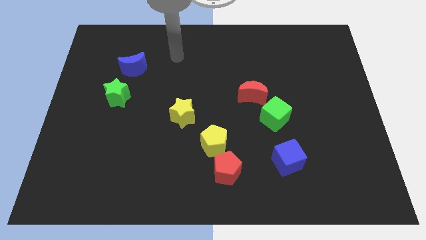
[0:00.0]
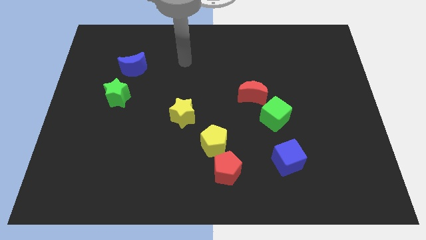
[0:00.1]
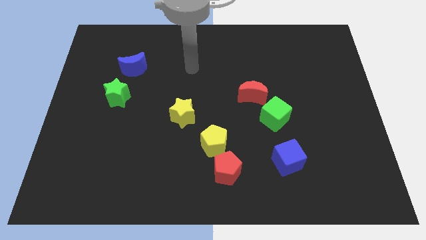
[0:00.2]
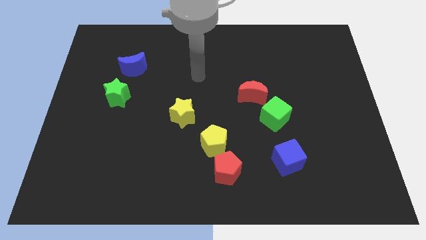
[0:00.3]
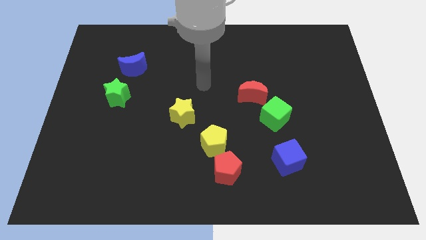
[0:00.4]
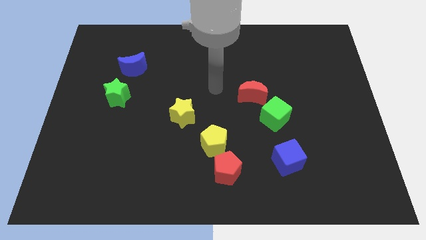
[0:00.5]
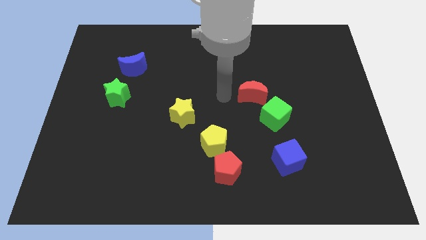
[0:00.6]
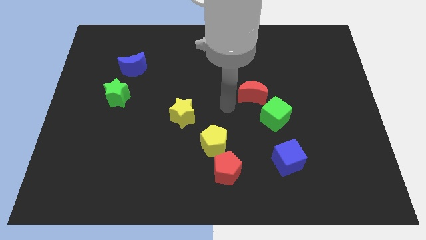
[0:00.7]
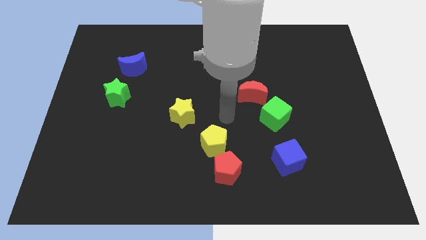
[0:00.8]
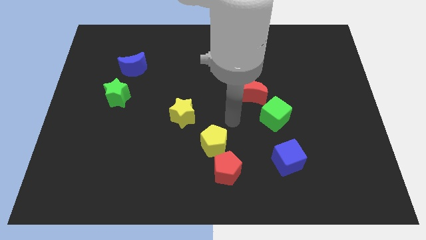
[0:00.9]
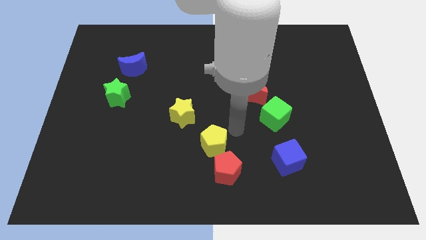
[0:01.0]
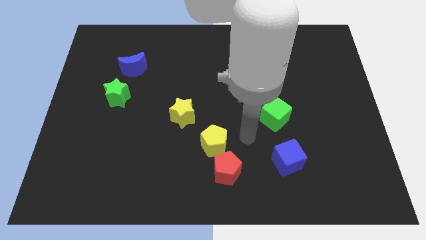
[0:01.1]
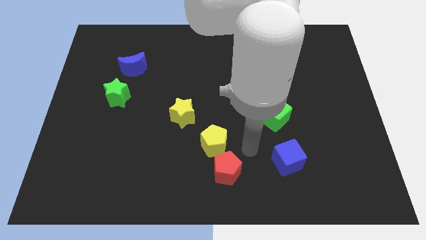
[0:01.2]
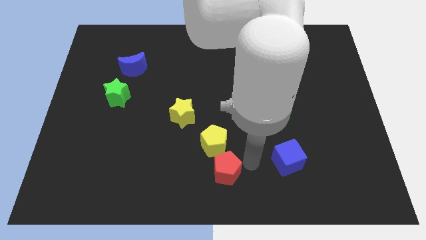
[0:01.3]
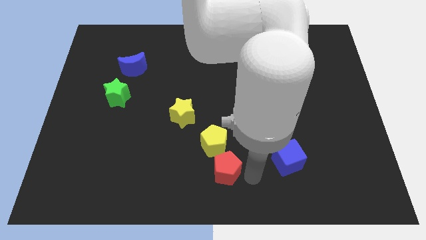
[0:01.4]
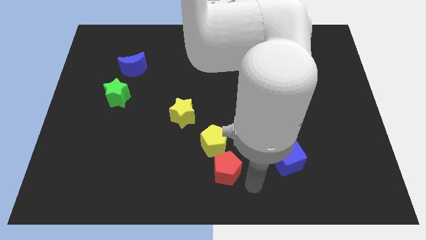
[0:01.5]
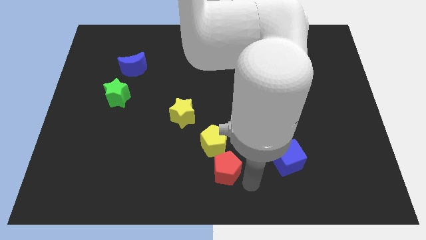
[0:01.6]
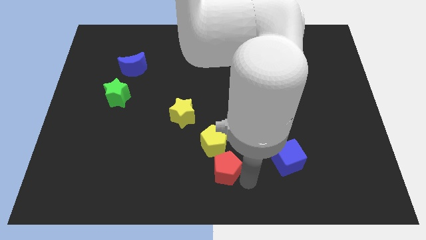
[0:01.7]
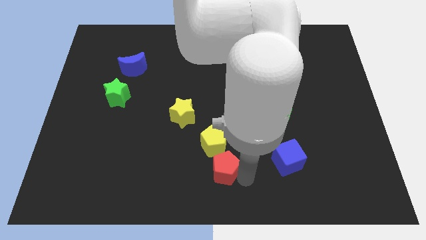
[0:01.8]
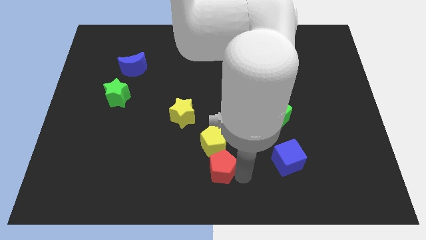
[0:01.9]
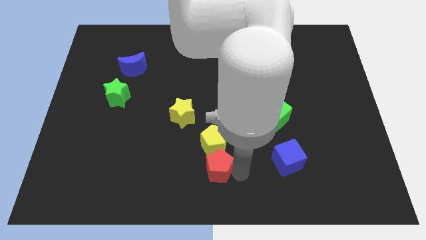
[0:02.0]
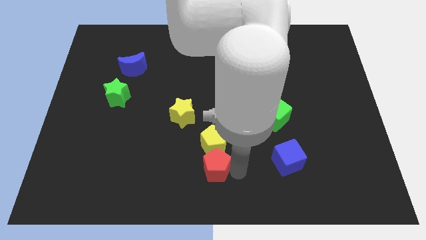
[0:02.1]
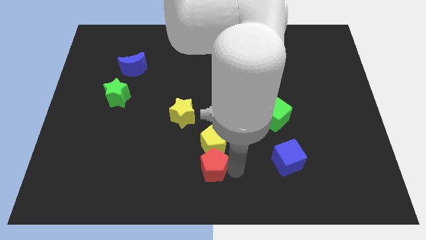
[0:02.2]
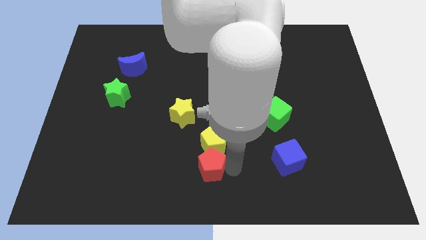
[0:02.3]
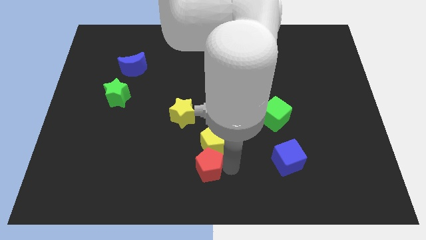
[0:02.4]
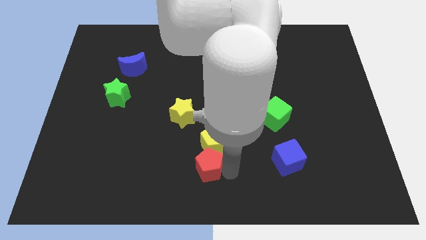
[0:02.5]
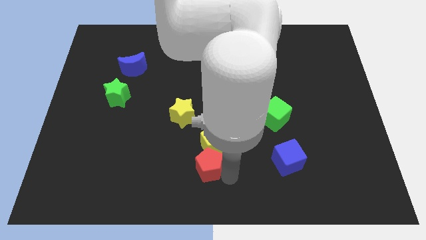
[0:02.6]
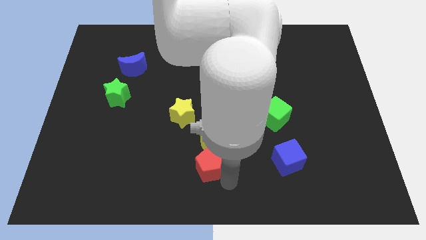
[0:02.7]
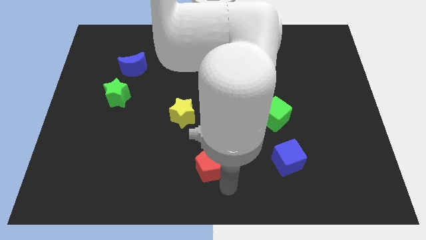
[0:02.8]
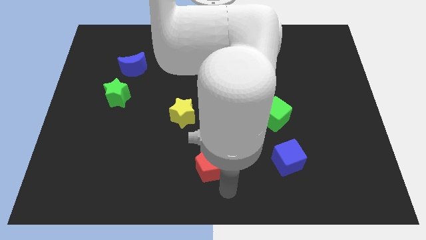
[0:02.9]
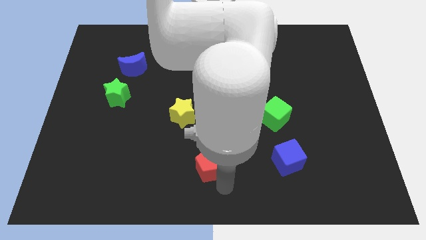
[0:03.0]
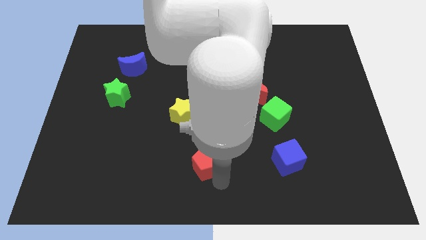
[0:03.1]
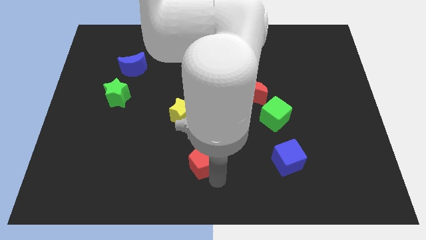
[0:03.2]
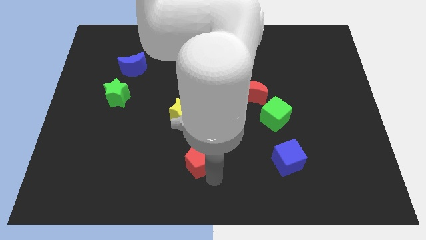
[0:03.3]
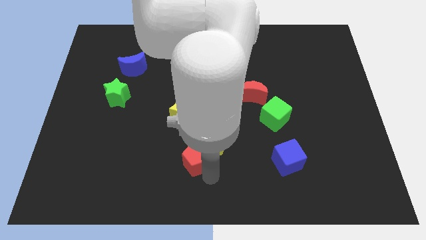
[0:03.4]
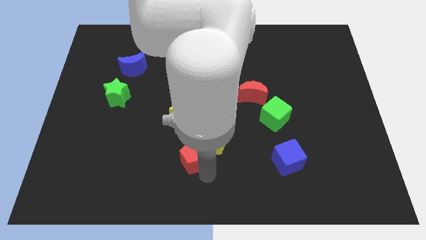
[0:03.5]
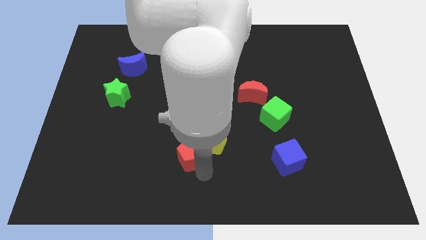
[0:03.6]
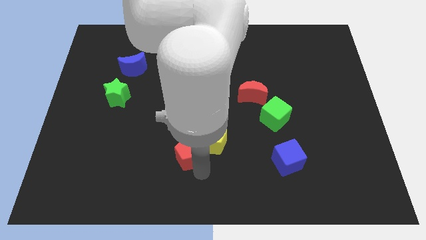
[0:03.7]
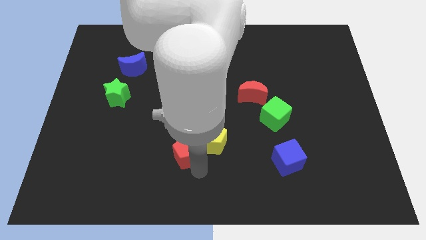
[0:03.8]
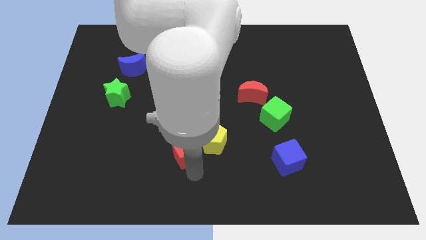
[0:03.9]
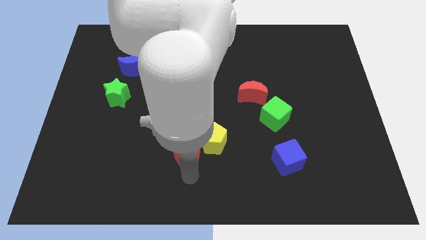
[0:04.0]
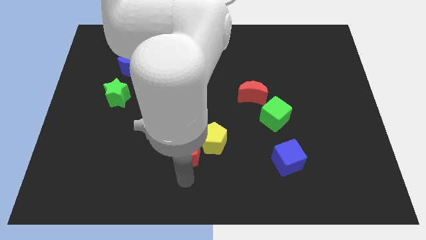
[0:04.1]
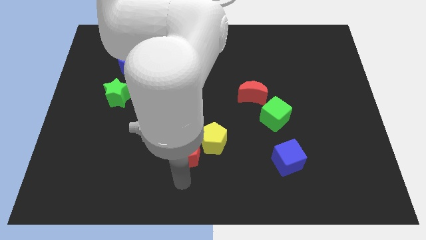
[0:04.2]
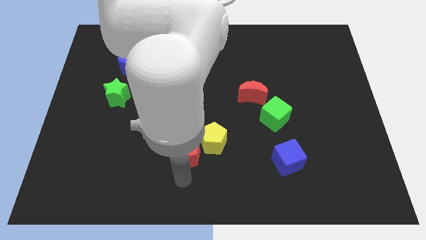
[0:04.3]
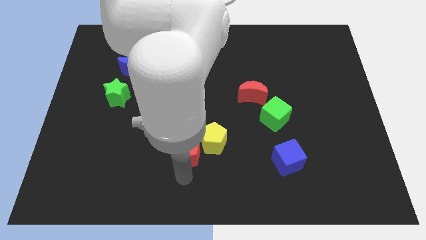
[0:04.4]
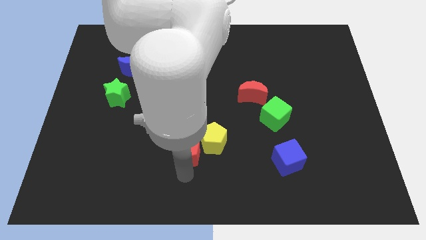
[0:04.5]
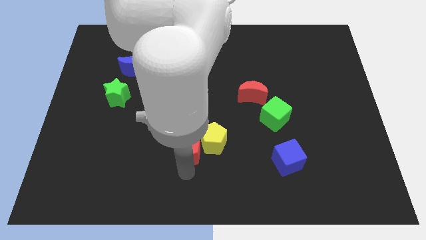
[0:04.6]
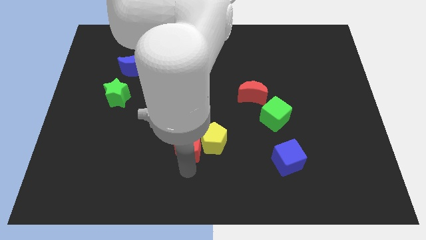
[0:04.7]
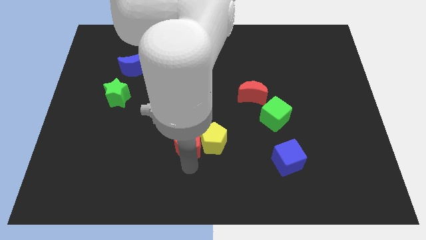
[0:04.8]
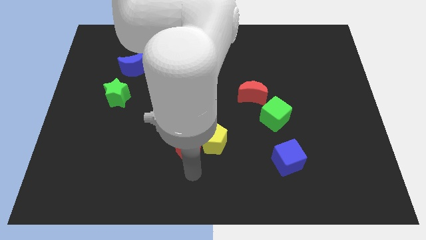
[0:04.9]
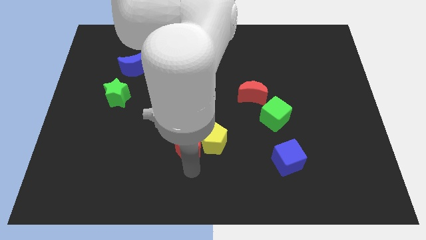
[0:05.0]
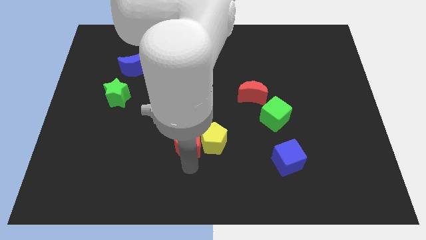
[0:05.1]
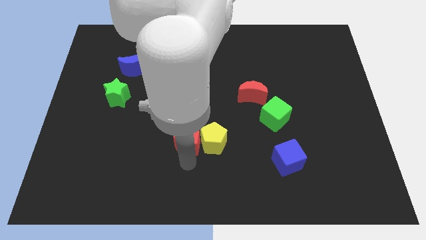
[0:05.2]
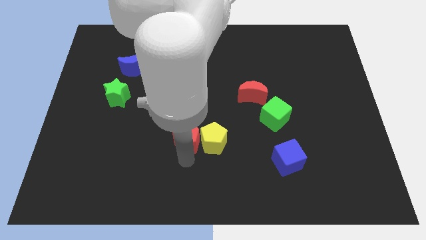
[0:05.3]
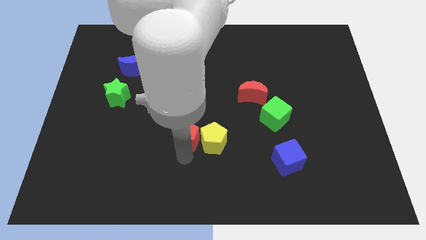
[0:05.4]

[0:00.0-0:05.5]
slide the red pentagon close to the yellow star

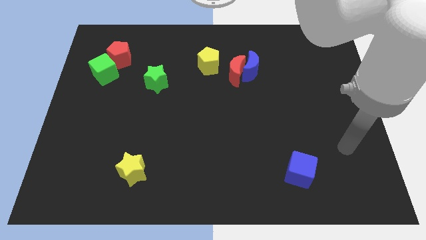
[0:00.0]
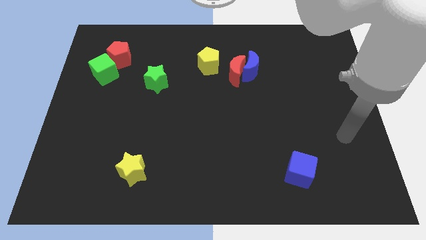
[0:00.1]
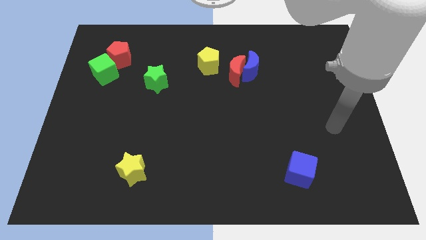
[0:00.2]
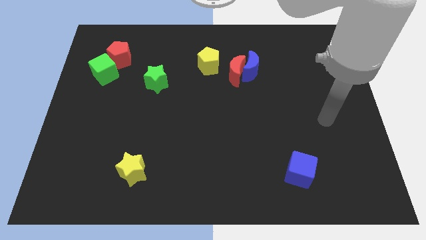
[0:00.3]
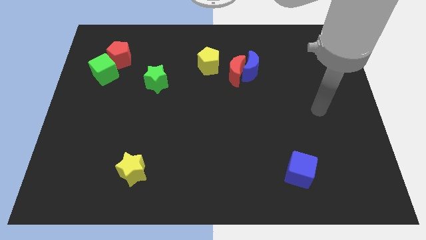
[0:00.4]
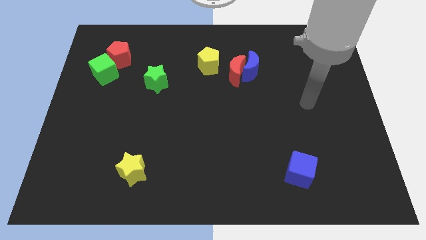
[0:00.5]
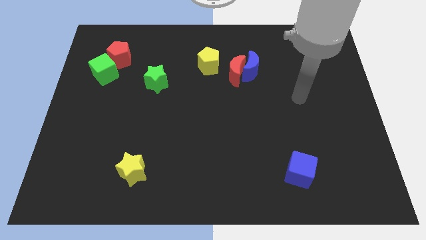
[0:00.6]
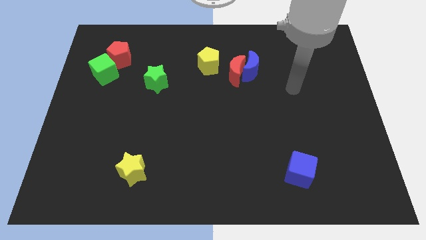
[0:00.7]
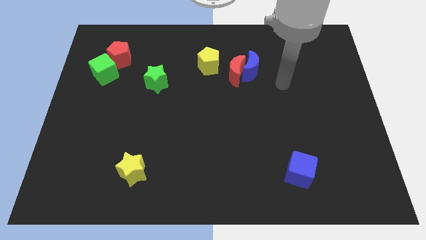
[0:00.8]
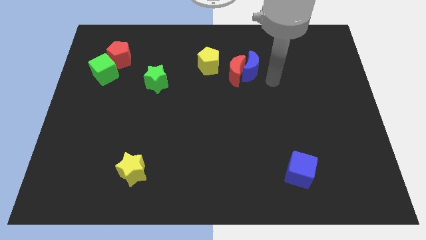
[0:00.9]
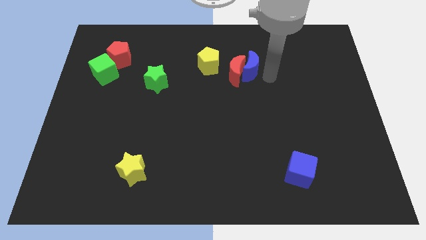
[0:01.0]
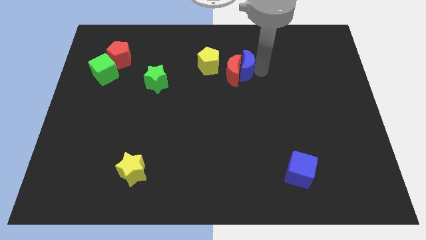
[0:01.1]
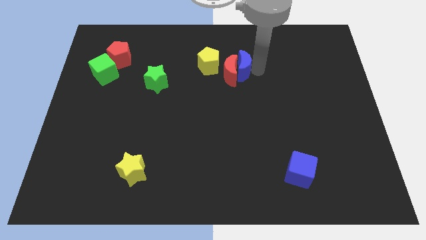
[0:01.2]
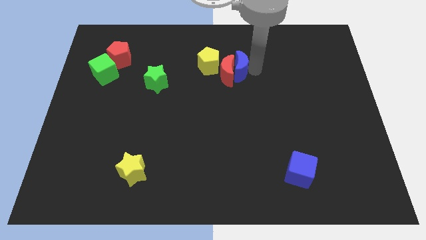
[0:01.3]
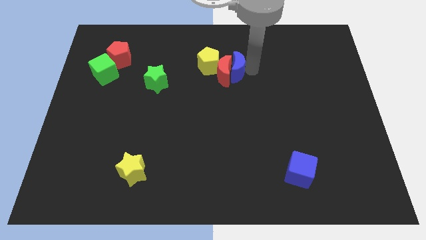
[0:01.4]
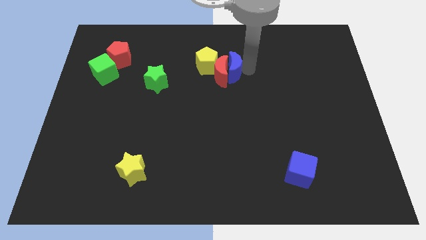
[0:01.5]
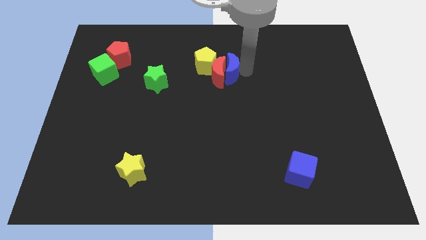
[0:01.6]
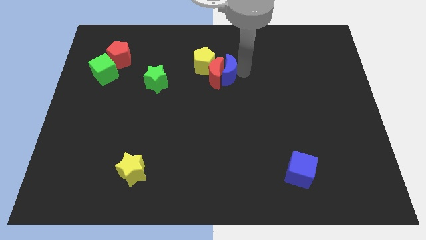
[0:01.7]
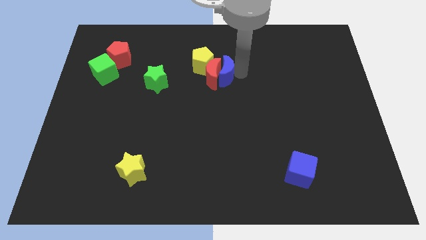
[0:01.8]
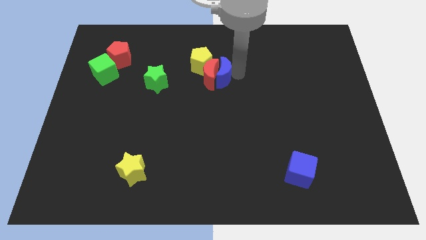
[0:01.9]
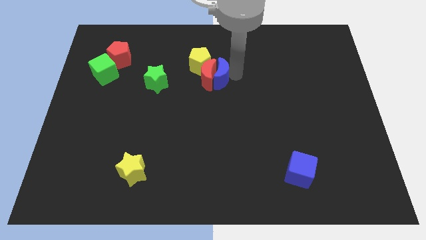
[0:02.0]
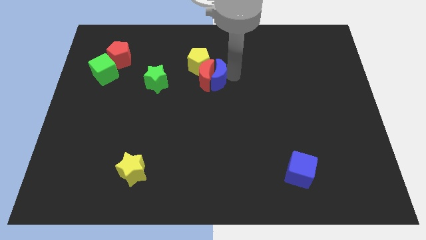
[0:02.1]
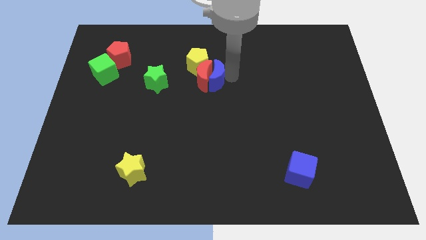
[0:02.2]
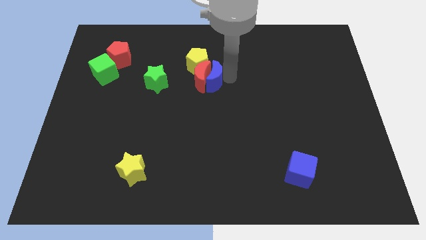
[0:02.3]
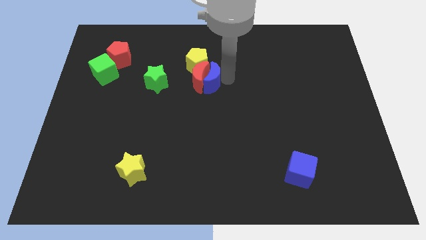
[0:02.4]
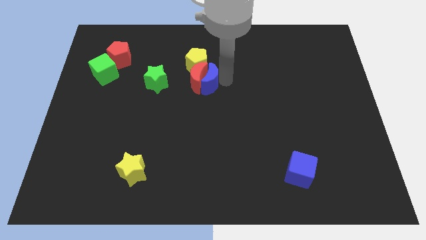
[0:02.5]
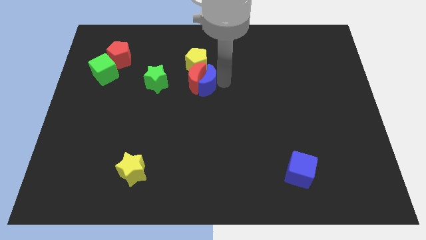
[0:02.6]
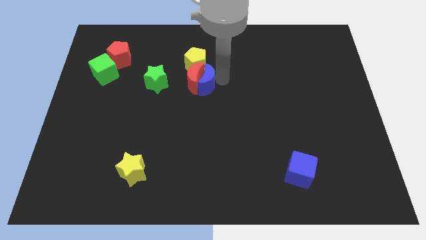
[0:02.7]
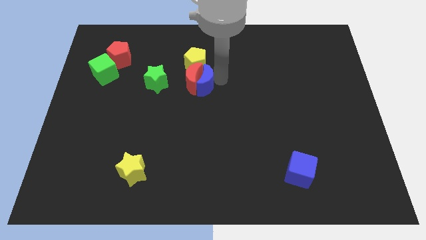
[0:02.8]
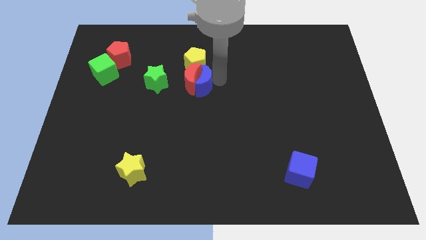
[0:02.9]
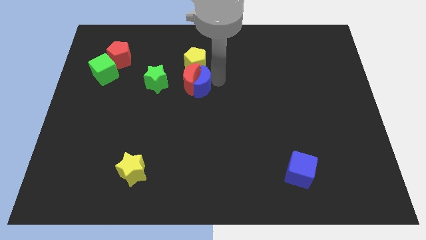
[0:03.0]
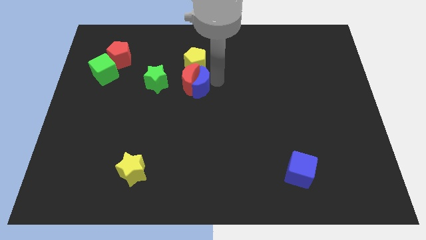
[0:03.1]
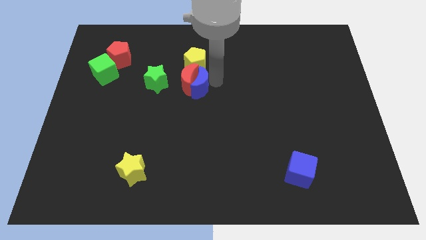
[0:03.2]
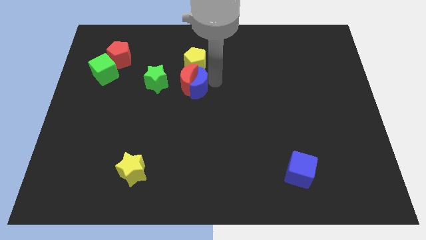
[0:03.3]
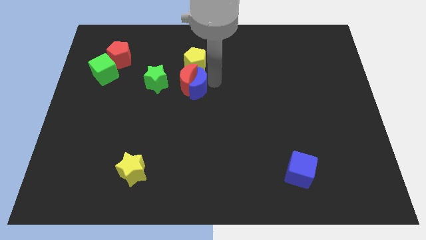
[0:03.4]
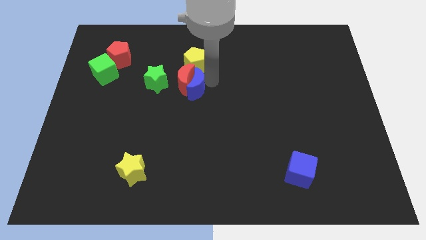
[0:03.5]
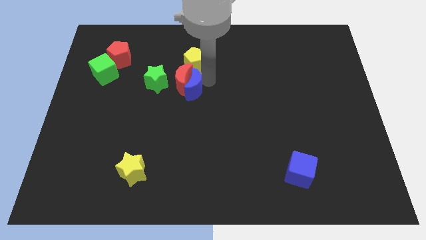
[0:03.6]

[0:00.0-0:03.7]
move the red moon next to the green star
